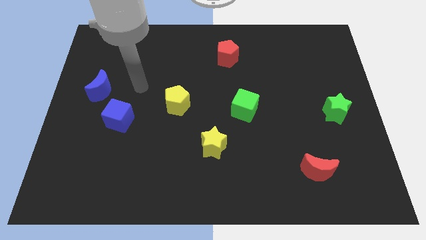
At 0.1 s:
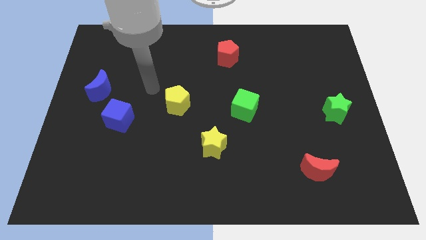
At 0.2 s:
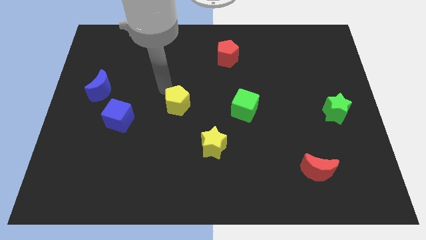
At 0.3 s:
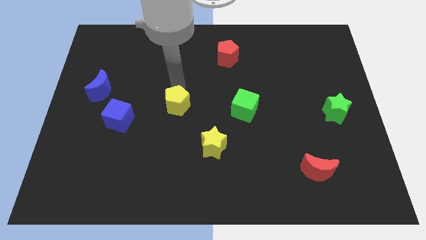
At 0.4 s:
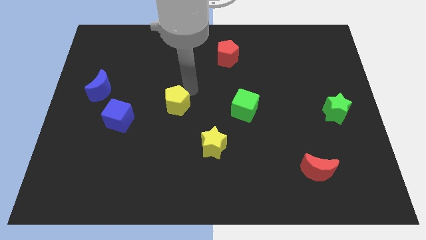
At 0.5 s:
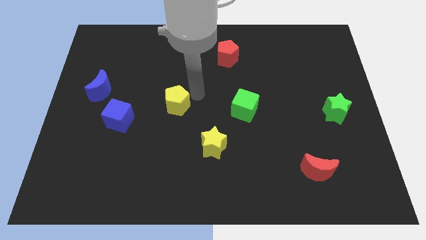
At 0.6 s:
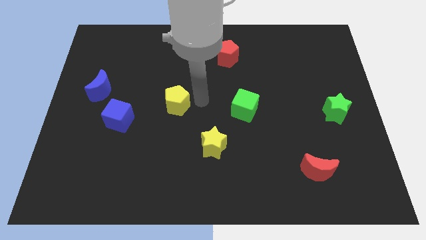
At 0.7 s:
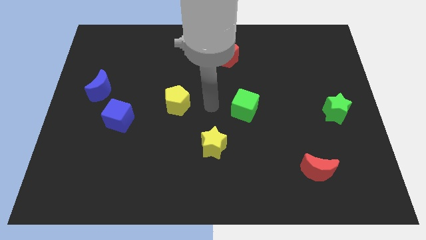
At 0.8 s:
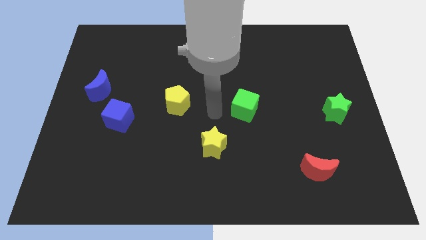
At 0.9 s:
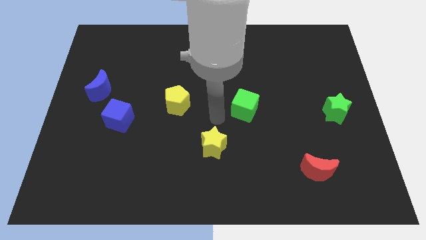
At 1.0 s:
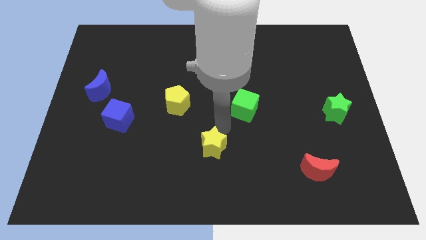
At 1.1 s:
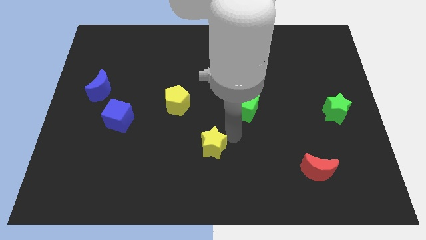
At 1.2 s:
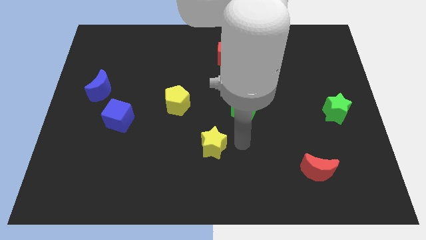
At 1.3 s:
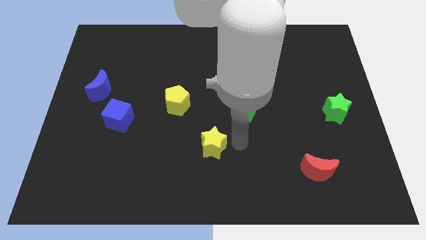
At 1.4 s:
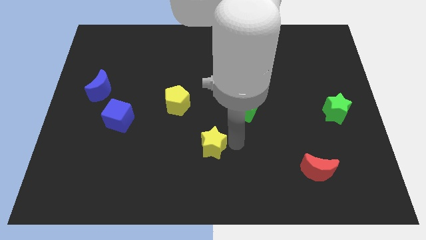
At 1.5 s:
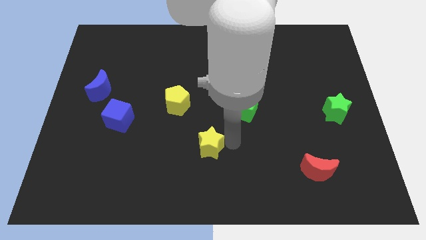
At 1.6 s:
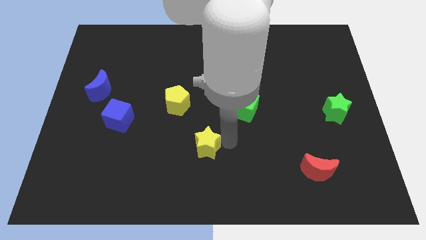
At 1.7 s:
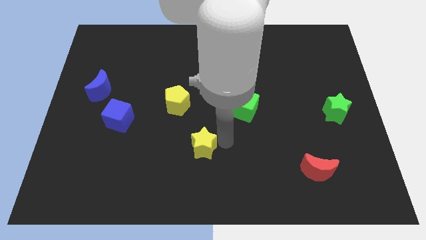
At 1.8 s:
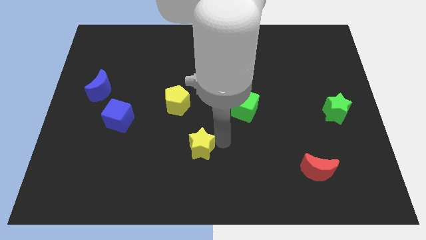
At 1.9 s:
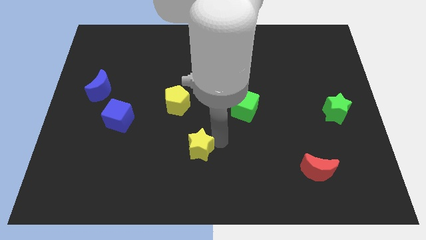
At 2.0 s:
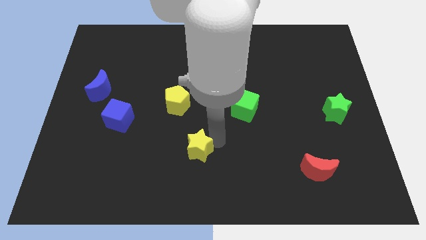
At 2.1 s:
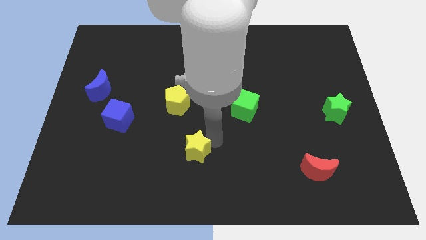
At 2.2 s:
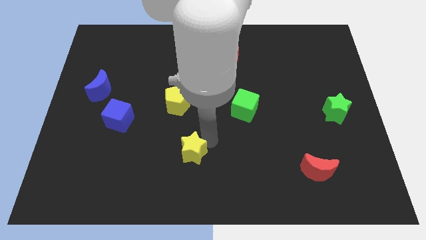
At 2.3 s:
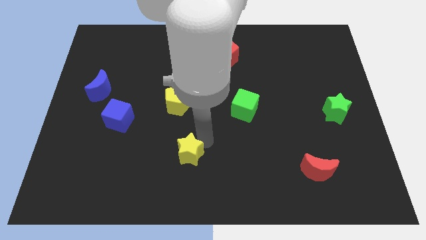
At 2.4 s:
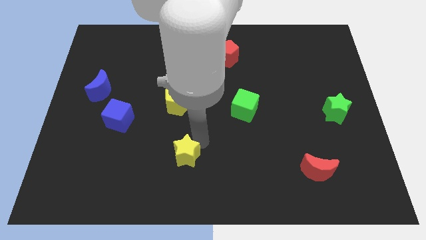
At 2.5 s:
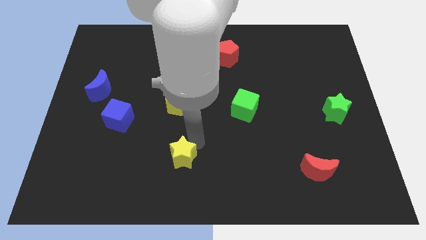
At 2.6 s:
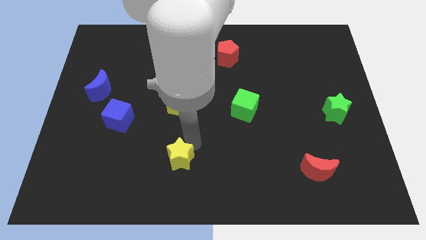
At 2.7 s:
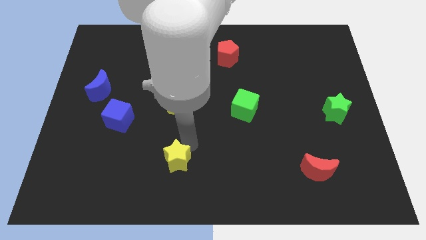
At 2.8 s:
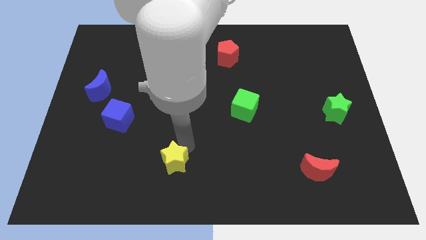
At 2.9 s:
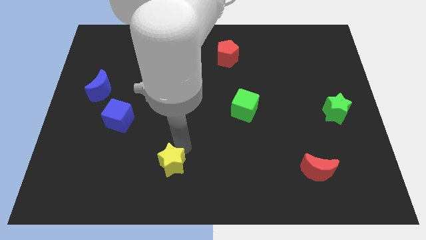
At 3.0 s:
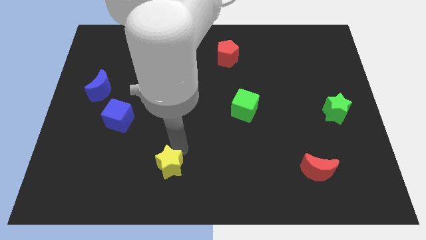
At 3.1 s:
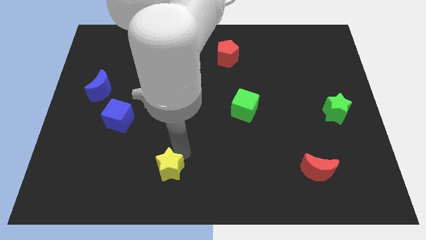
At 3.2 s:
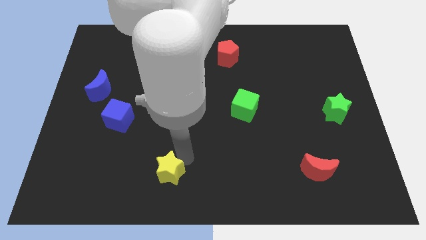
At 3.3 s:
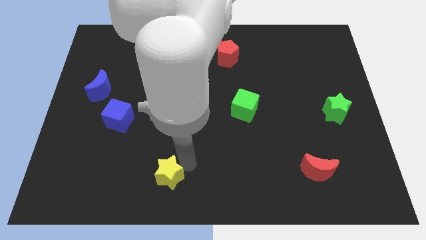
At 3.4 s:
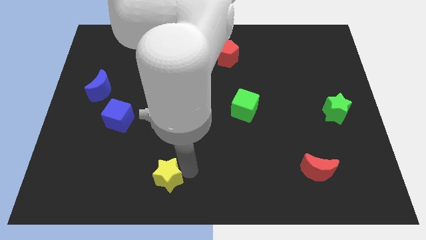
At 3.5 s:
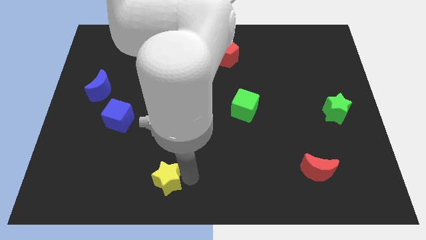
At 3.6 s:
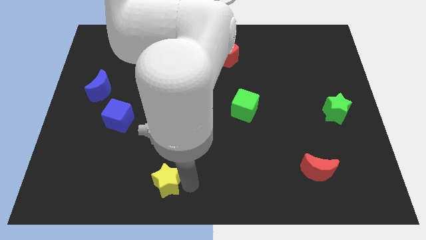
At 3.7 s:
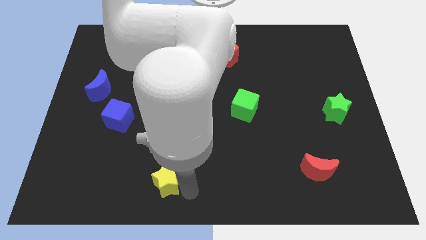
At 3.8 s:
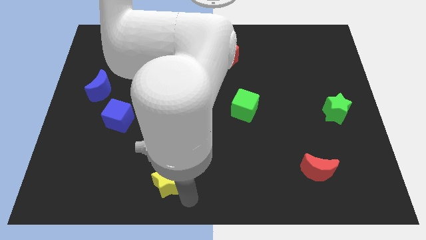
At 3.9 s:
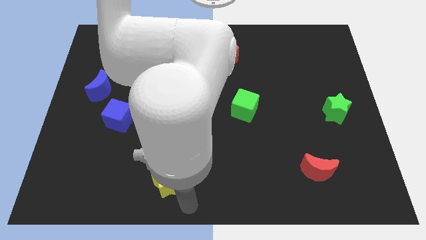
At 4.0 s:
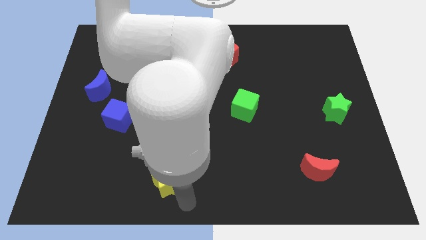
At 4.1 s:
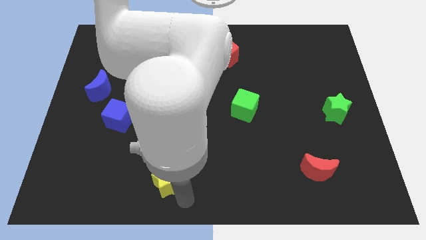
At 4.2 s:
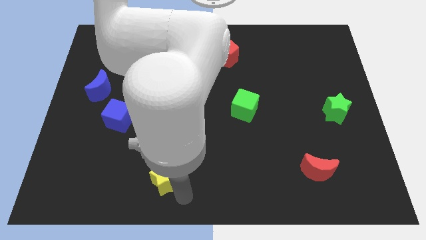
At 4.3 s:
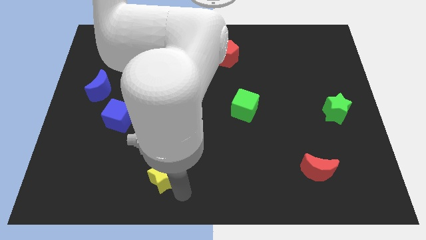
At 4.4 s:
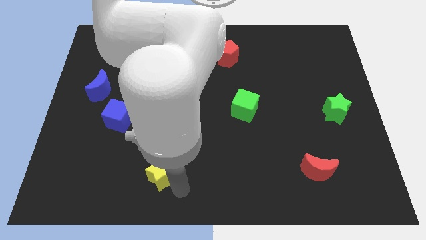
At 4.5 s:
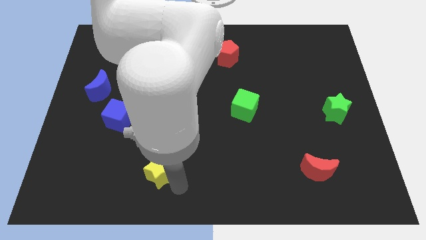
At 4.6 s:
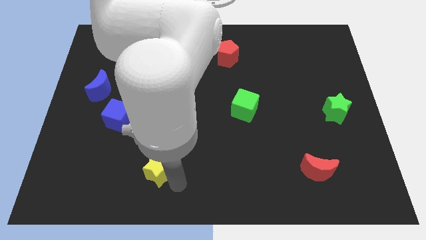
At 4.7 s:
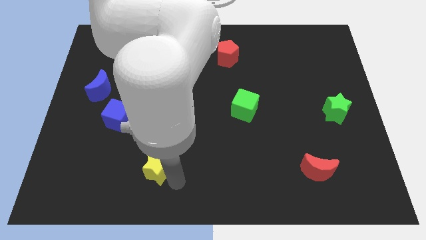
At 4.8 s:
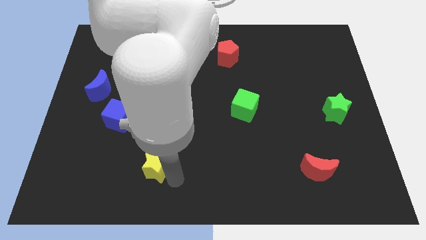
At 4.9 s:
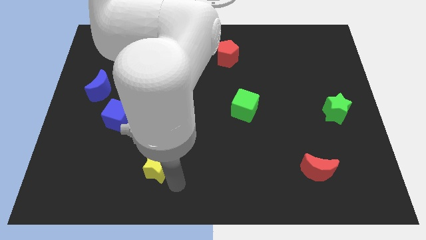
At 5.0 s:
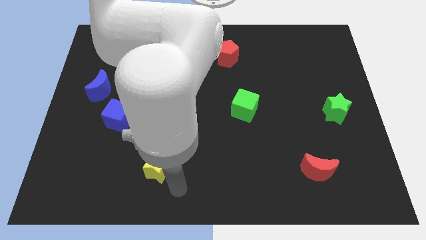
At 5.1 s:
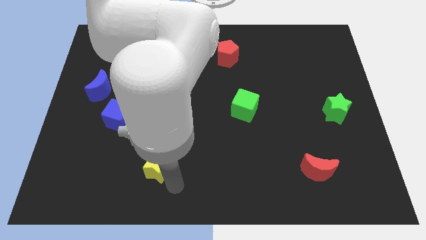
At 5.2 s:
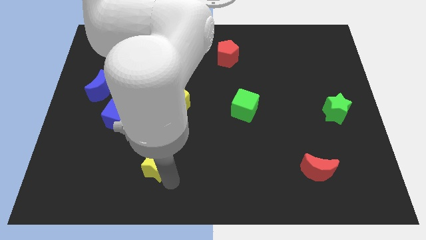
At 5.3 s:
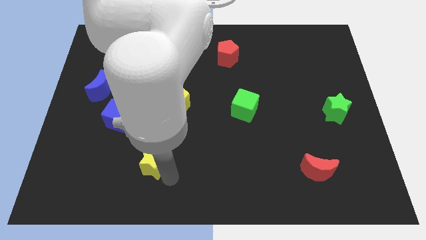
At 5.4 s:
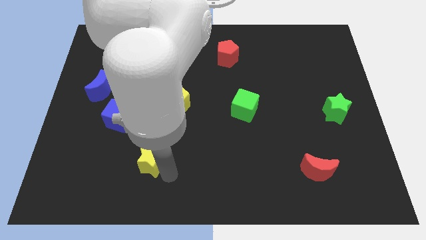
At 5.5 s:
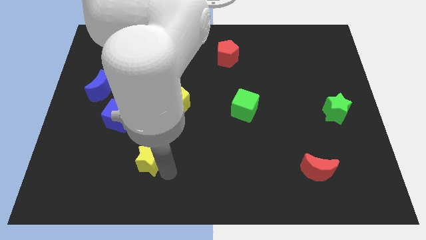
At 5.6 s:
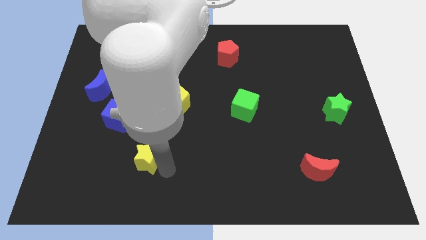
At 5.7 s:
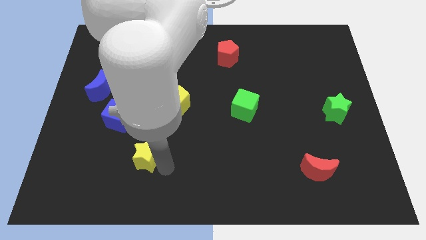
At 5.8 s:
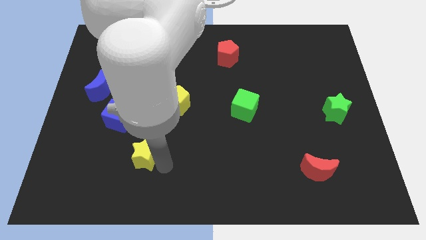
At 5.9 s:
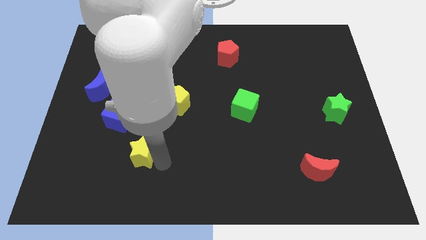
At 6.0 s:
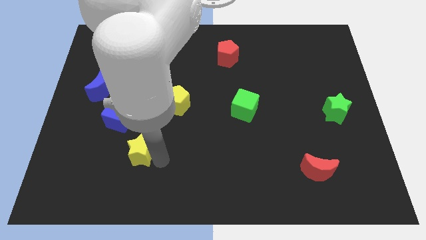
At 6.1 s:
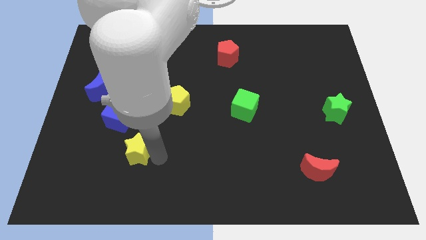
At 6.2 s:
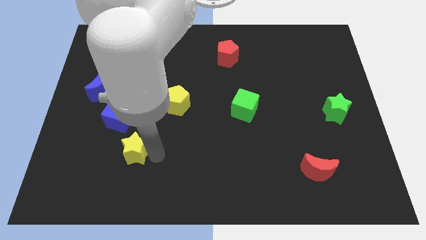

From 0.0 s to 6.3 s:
slide the yellow star to the bottom of the blue cube

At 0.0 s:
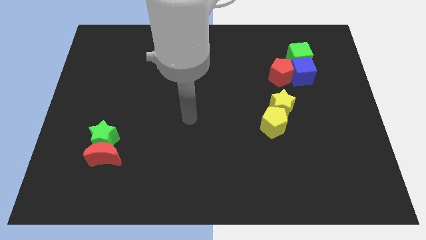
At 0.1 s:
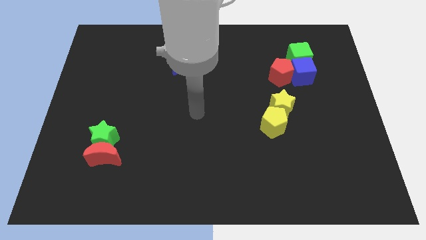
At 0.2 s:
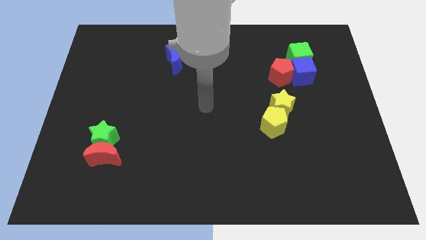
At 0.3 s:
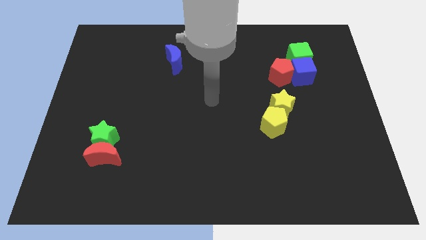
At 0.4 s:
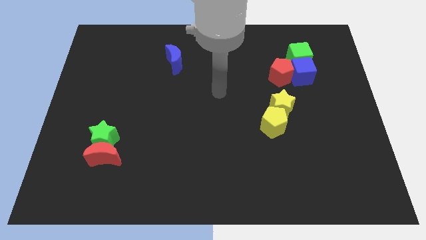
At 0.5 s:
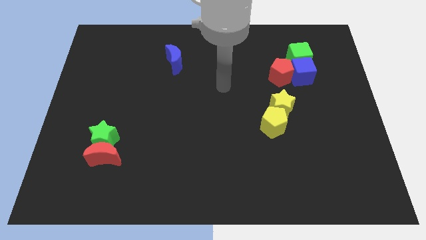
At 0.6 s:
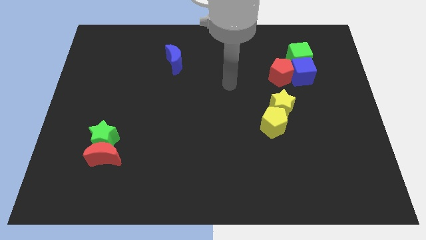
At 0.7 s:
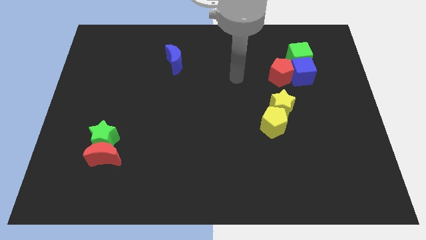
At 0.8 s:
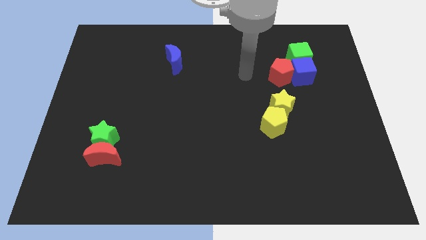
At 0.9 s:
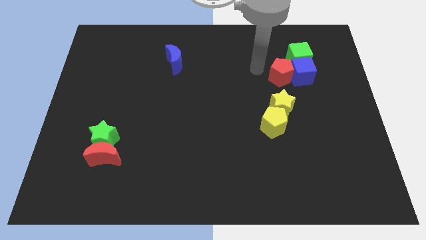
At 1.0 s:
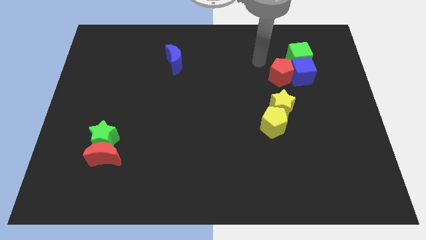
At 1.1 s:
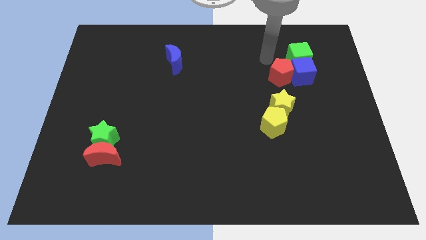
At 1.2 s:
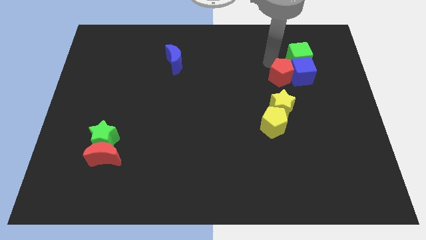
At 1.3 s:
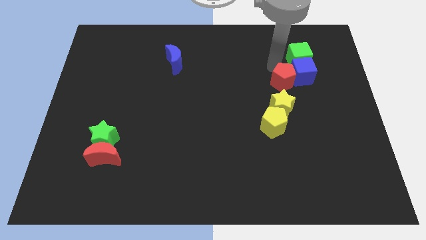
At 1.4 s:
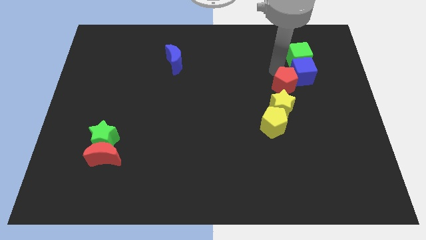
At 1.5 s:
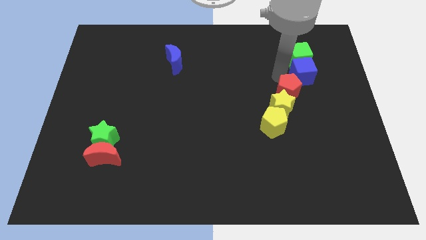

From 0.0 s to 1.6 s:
put the red pentagon to the bottom side of the blue cube

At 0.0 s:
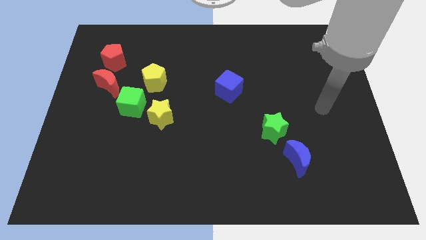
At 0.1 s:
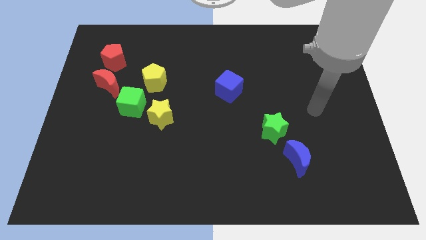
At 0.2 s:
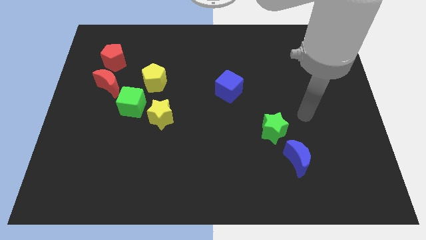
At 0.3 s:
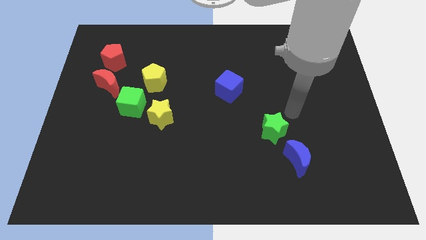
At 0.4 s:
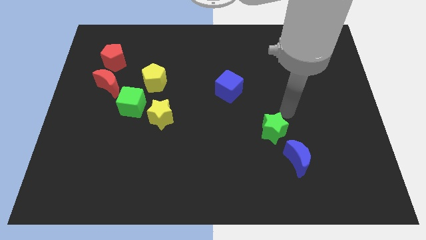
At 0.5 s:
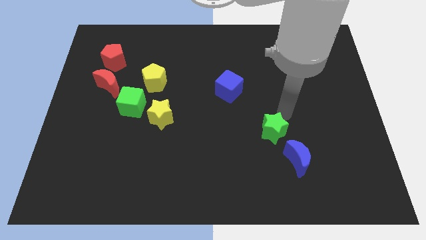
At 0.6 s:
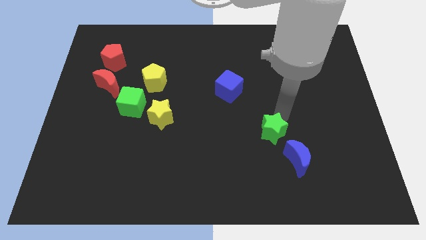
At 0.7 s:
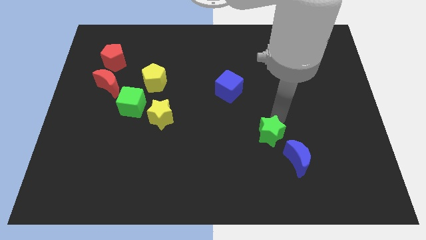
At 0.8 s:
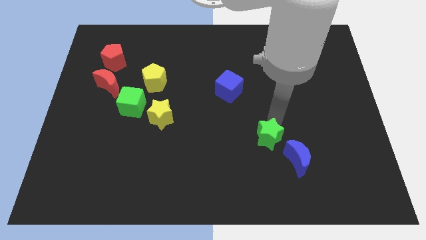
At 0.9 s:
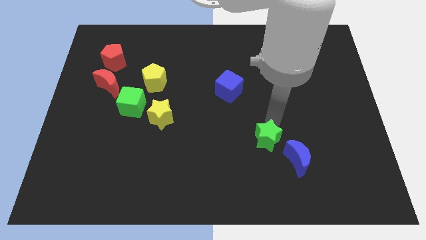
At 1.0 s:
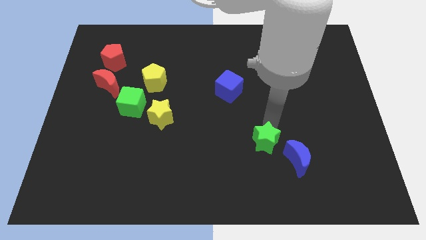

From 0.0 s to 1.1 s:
slide the green star just left of the blue moon
